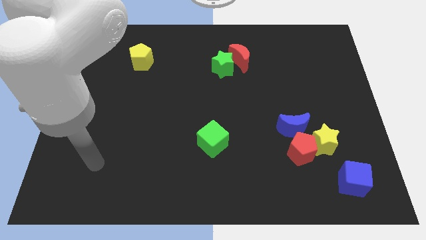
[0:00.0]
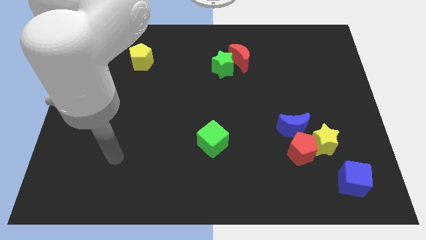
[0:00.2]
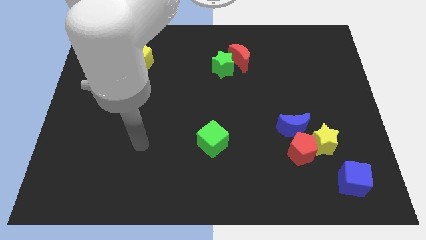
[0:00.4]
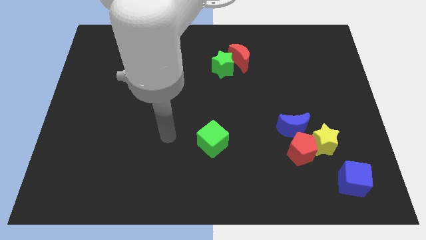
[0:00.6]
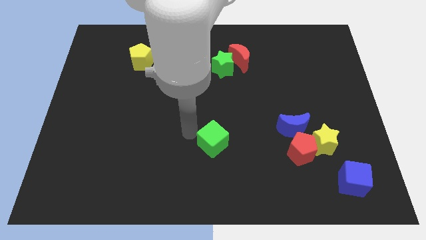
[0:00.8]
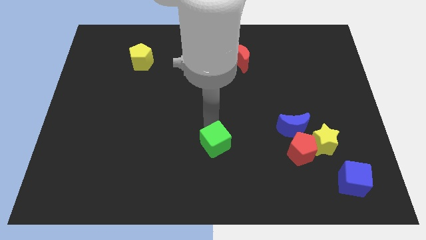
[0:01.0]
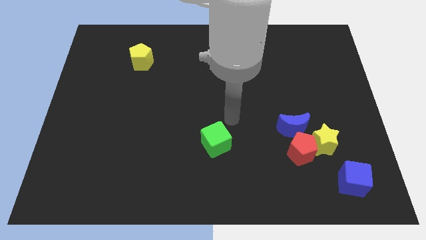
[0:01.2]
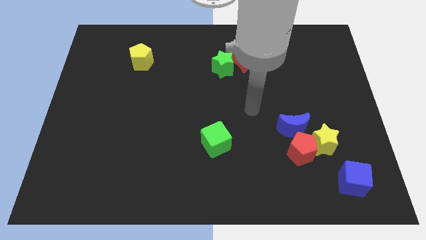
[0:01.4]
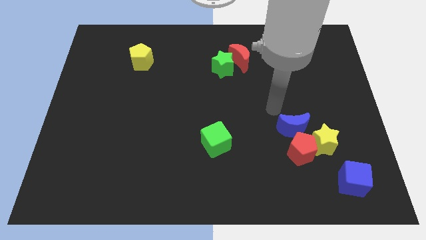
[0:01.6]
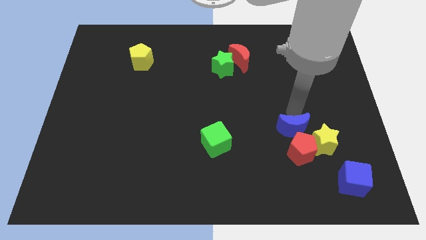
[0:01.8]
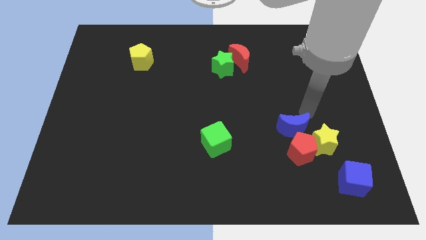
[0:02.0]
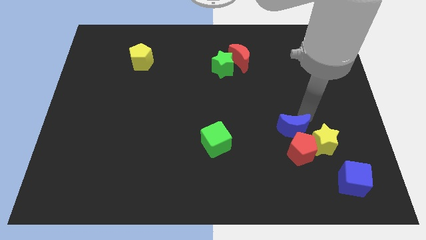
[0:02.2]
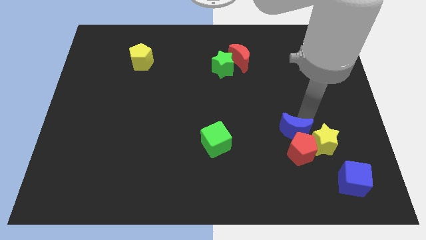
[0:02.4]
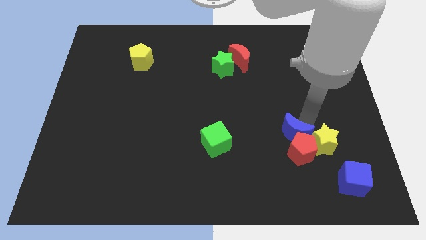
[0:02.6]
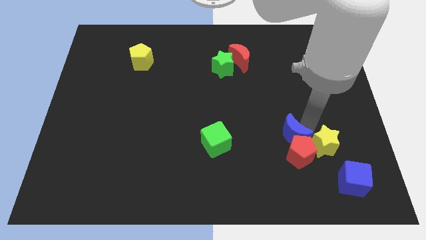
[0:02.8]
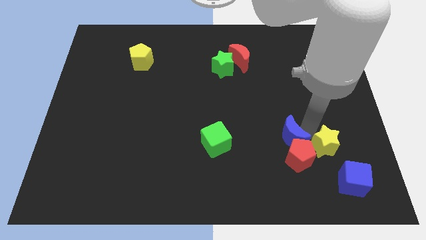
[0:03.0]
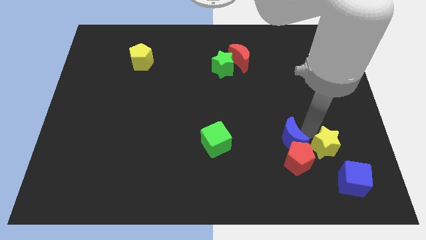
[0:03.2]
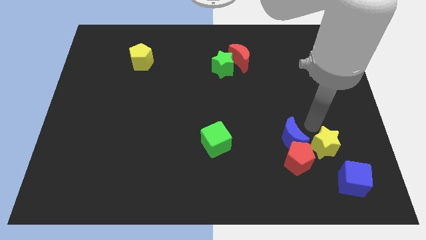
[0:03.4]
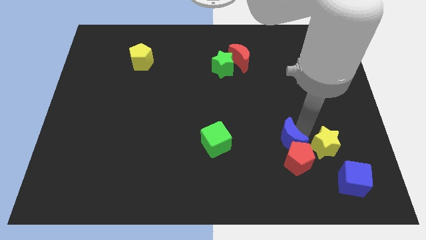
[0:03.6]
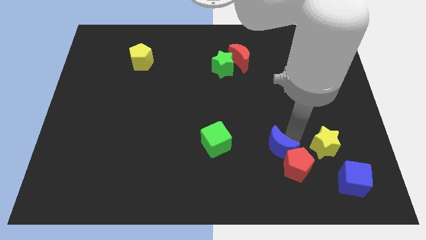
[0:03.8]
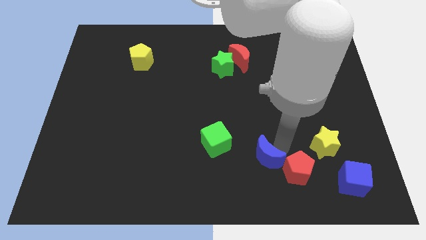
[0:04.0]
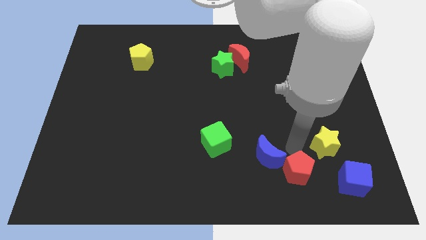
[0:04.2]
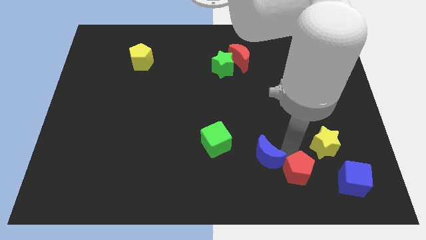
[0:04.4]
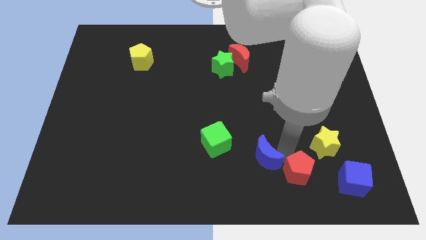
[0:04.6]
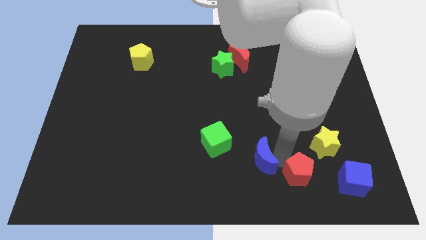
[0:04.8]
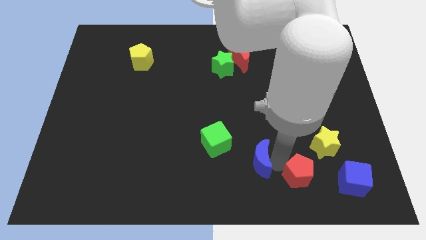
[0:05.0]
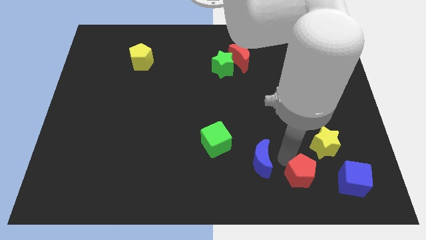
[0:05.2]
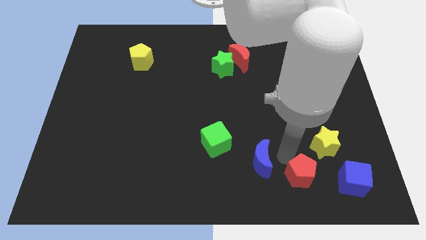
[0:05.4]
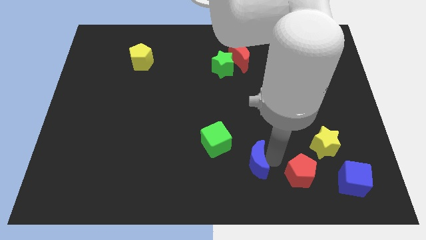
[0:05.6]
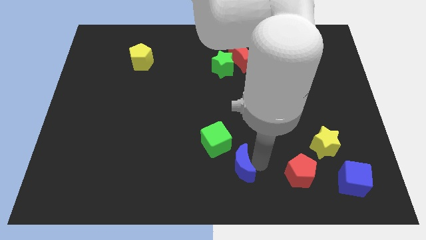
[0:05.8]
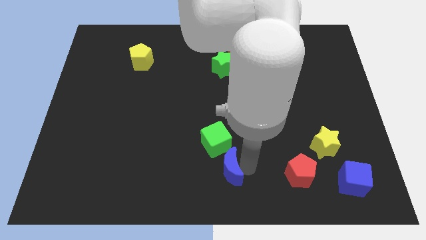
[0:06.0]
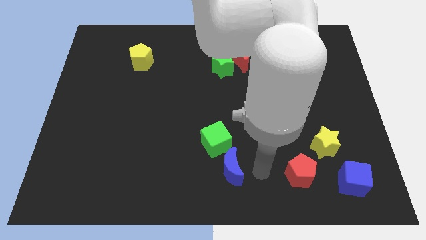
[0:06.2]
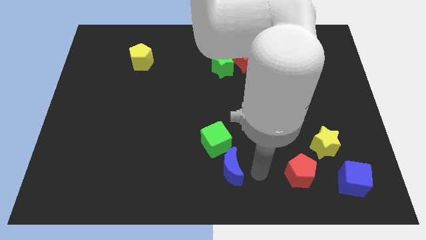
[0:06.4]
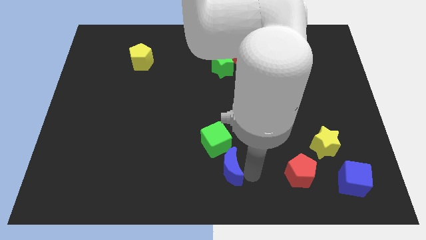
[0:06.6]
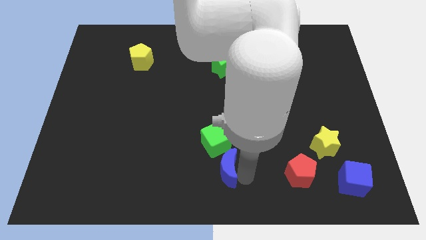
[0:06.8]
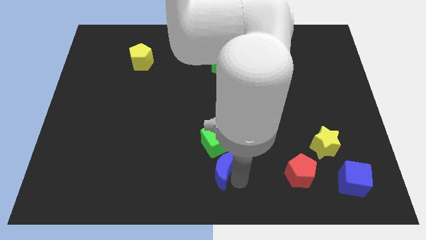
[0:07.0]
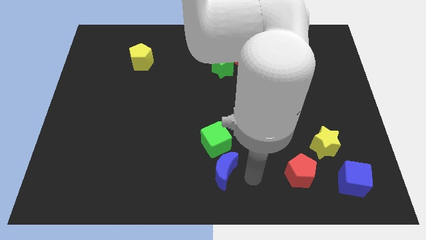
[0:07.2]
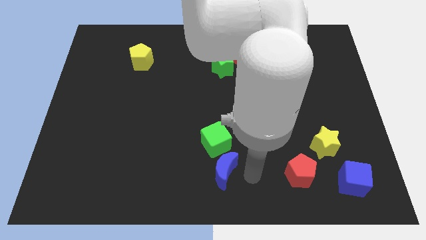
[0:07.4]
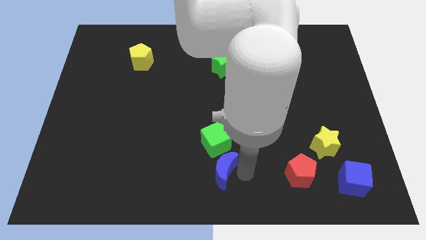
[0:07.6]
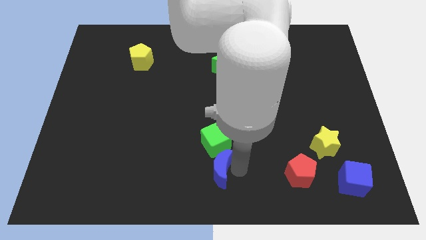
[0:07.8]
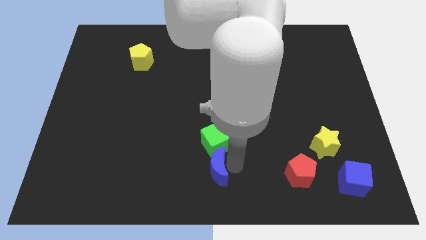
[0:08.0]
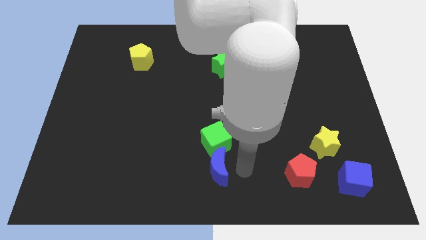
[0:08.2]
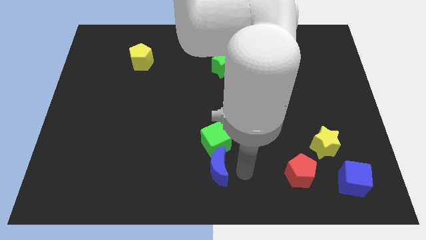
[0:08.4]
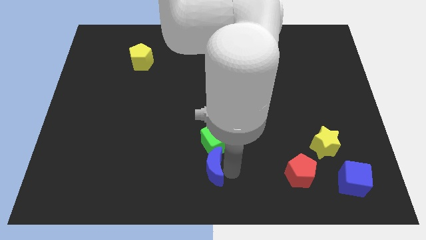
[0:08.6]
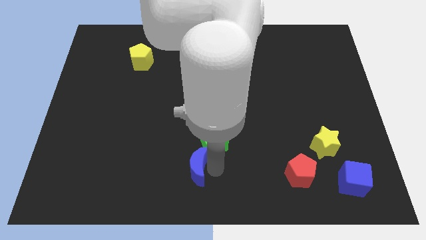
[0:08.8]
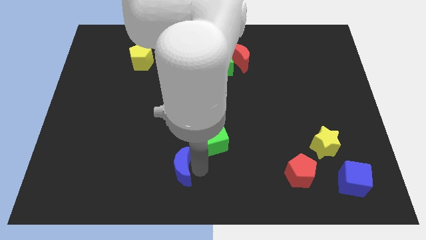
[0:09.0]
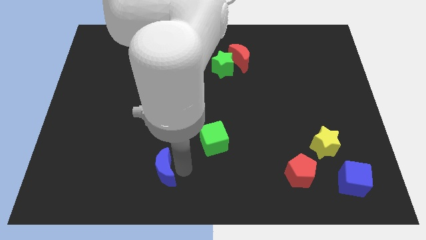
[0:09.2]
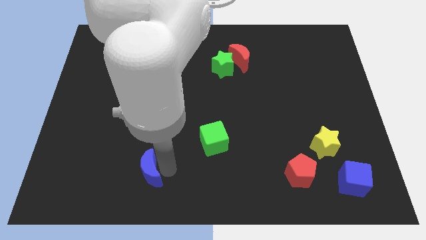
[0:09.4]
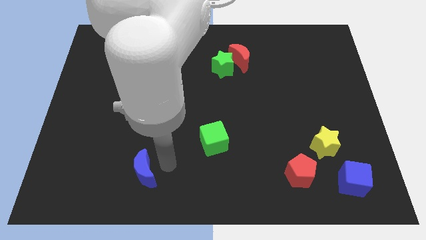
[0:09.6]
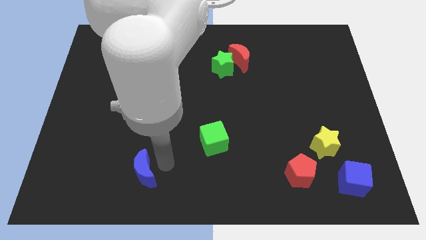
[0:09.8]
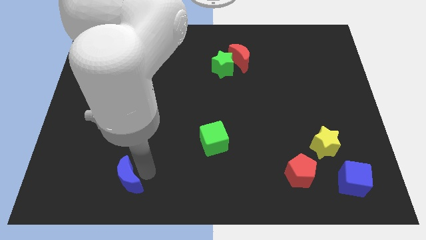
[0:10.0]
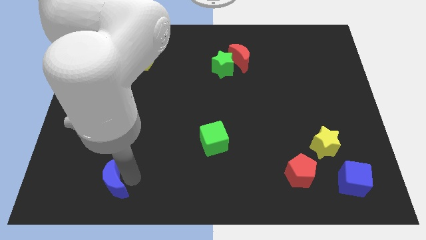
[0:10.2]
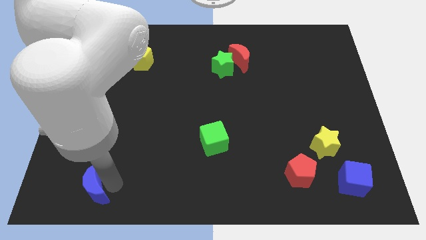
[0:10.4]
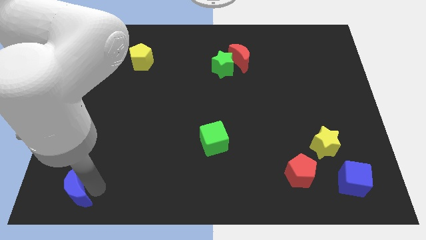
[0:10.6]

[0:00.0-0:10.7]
slide the blue moon to the bottom left of the board

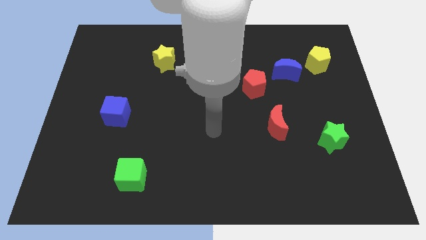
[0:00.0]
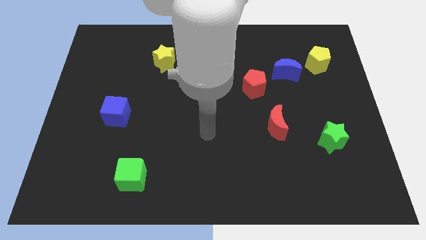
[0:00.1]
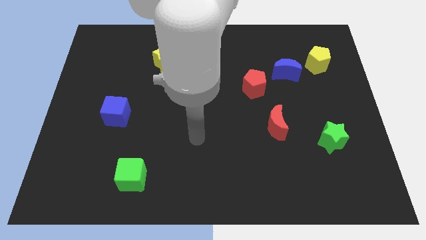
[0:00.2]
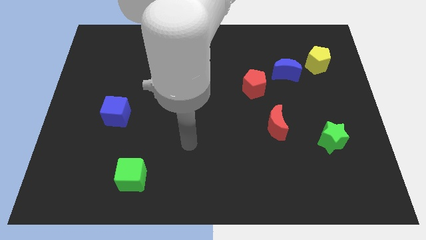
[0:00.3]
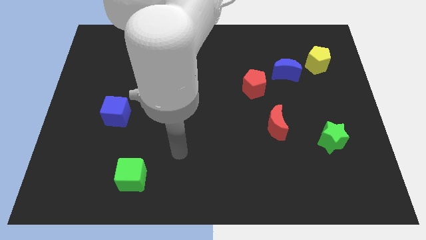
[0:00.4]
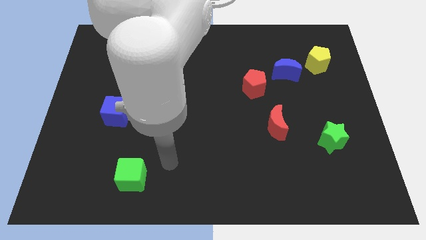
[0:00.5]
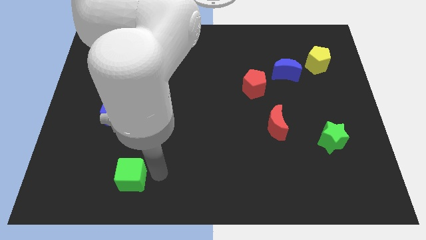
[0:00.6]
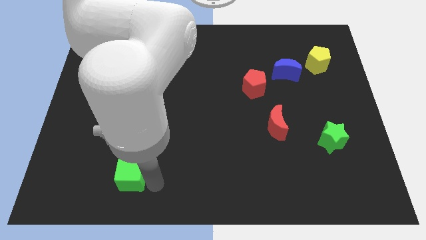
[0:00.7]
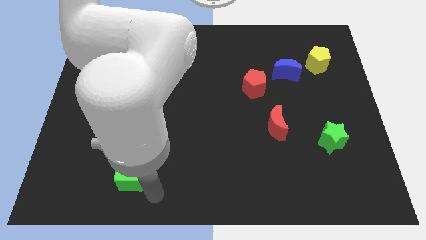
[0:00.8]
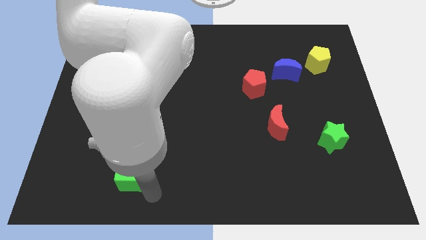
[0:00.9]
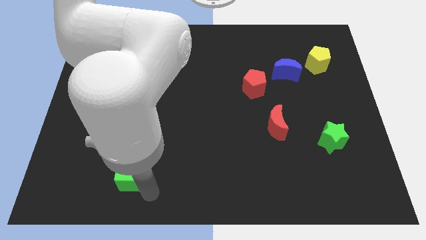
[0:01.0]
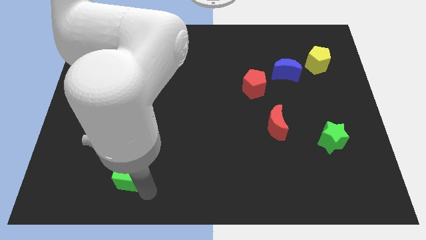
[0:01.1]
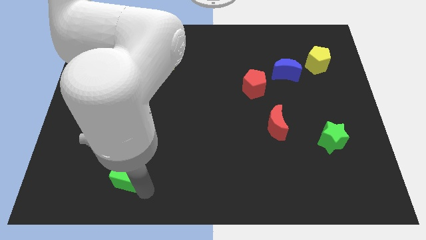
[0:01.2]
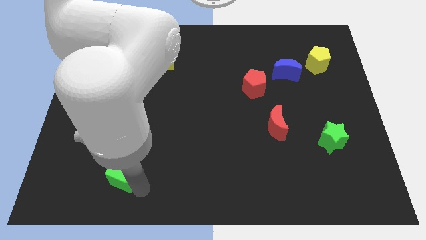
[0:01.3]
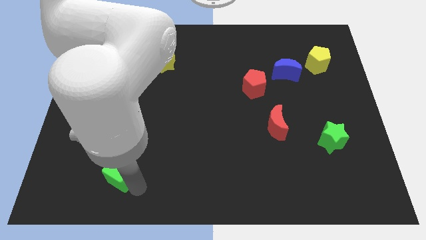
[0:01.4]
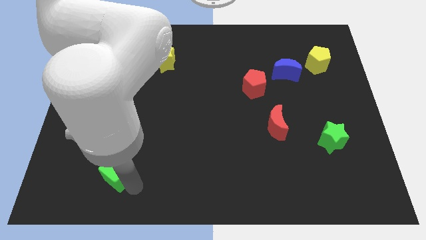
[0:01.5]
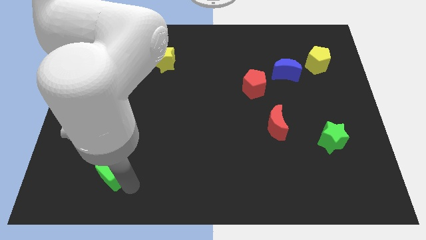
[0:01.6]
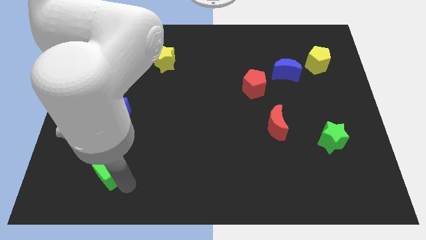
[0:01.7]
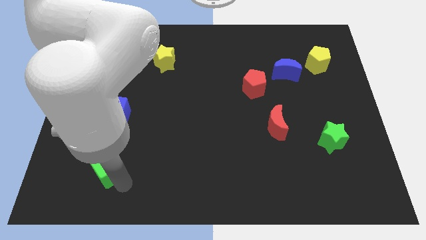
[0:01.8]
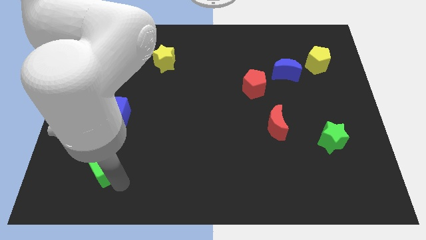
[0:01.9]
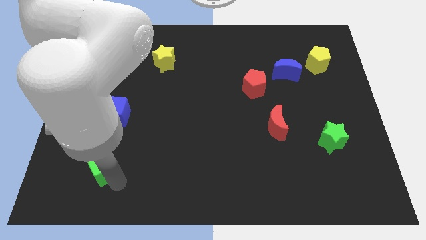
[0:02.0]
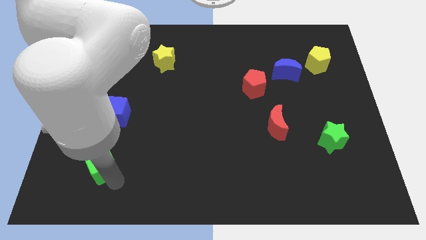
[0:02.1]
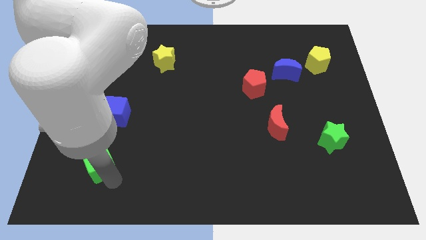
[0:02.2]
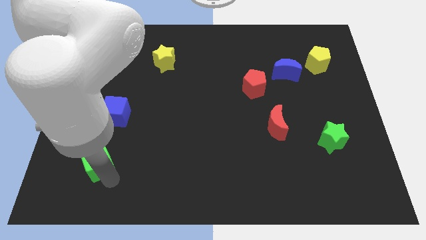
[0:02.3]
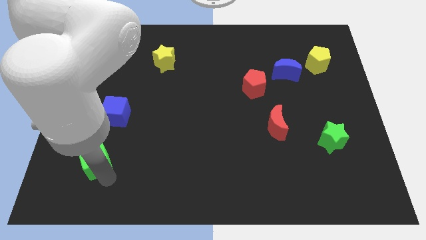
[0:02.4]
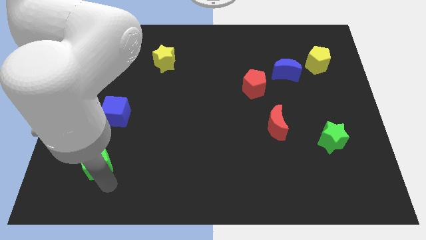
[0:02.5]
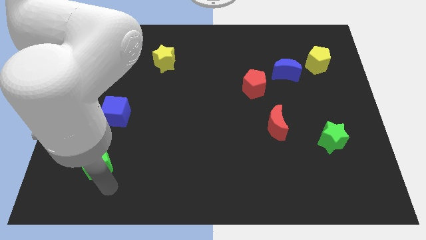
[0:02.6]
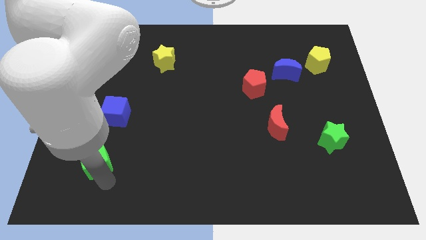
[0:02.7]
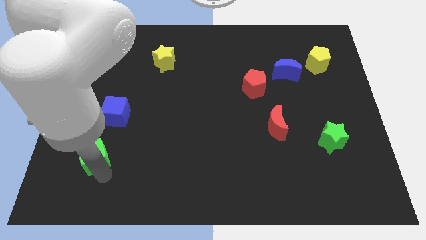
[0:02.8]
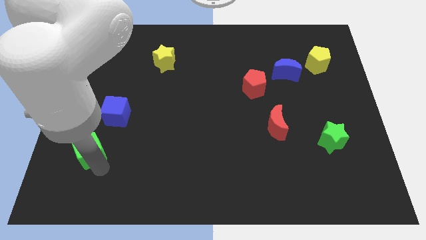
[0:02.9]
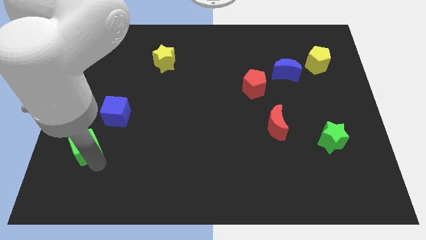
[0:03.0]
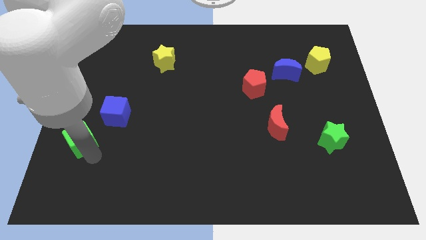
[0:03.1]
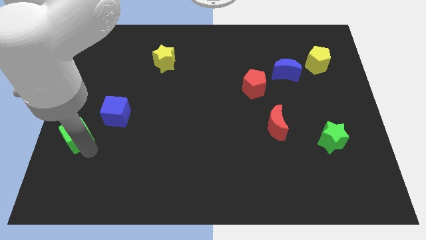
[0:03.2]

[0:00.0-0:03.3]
put the green cube to the center left
